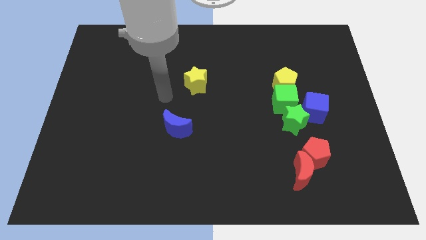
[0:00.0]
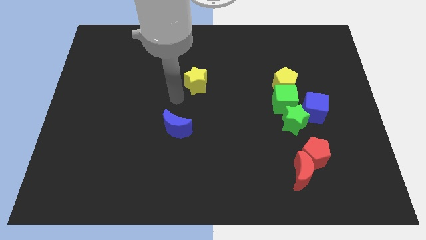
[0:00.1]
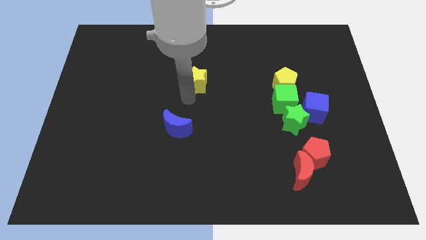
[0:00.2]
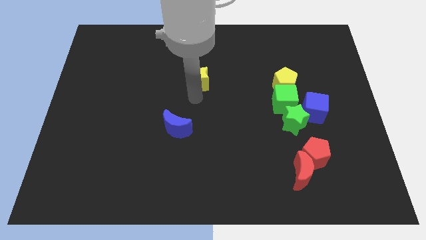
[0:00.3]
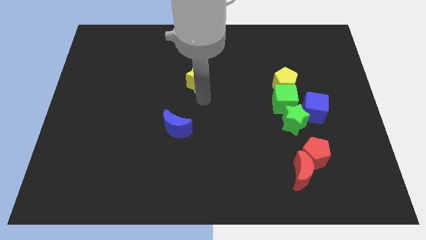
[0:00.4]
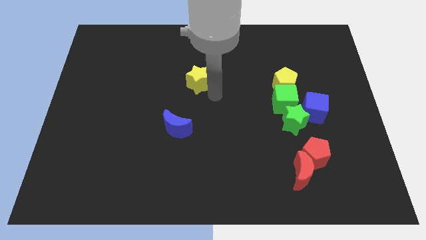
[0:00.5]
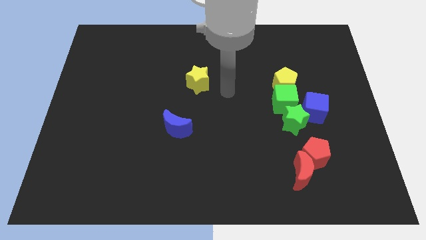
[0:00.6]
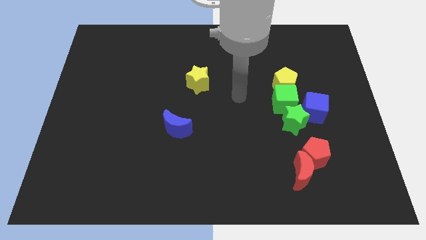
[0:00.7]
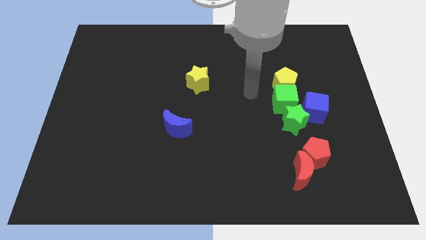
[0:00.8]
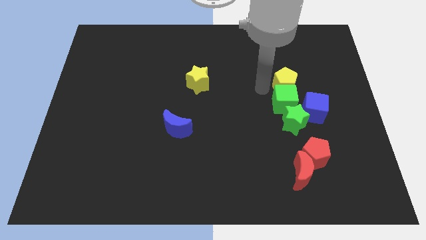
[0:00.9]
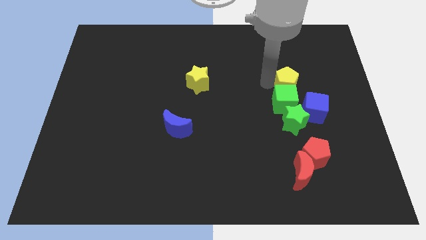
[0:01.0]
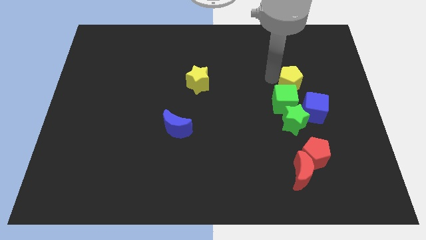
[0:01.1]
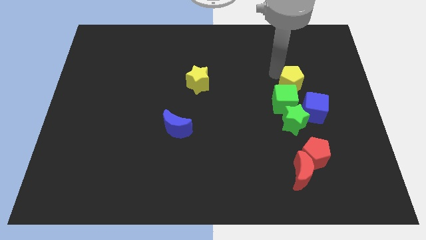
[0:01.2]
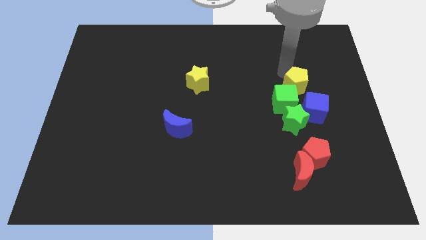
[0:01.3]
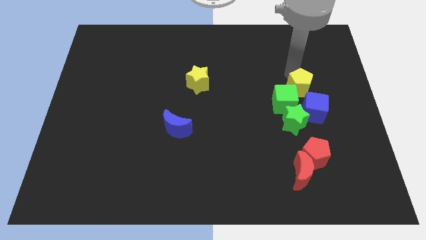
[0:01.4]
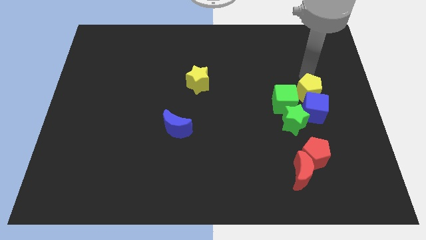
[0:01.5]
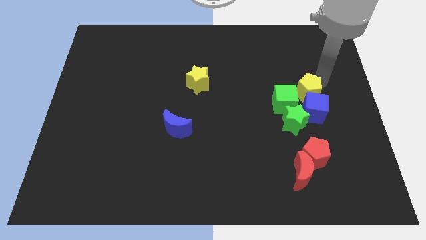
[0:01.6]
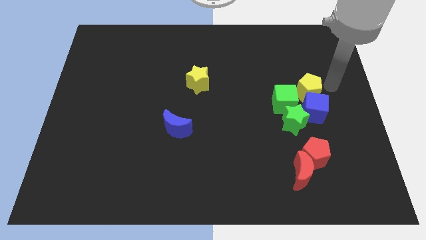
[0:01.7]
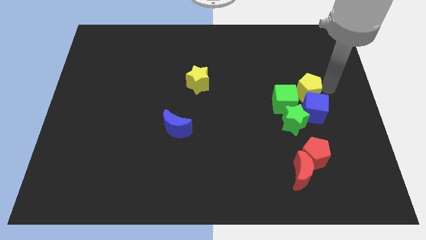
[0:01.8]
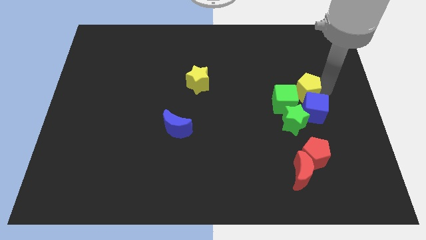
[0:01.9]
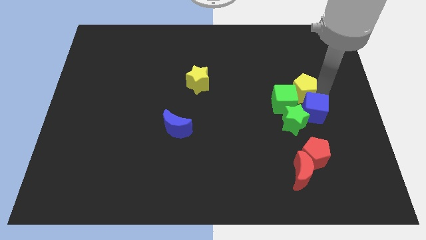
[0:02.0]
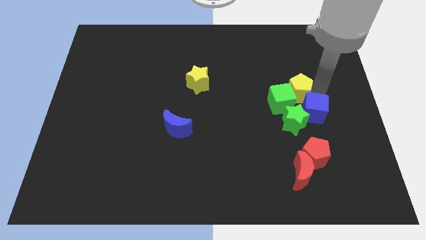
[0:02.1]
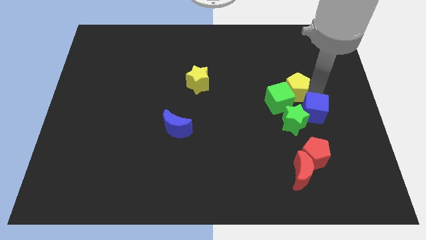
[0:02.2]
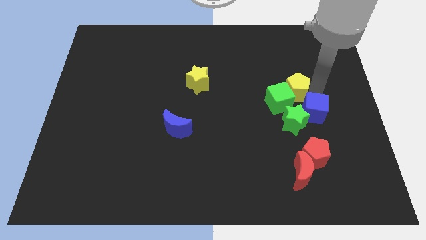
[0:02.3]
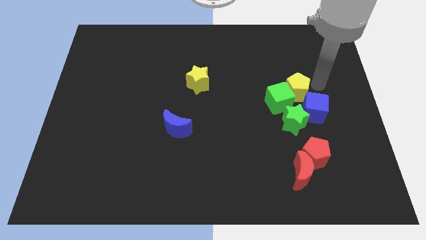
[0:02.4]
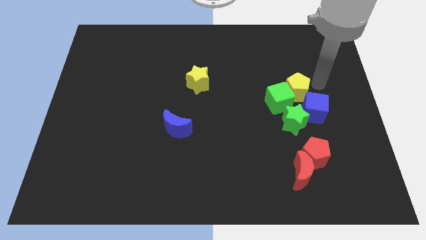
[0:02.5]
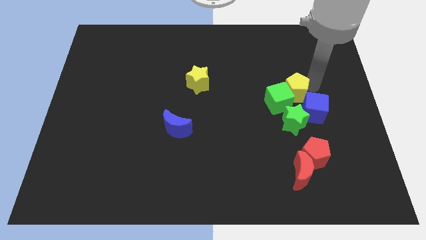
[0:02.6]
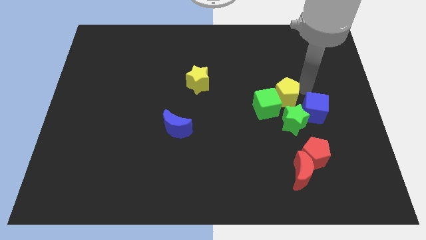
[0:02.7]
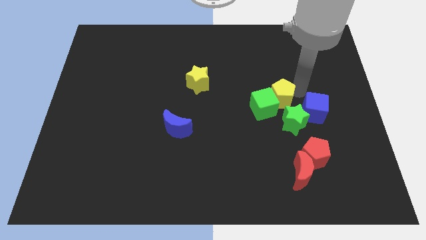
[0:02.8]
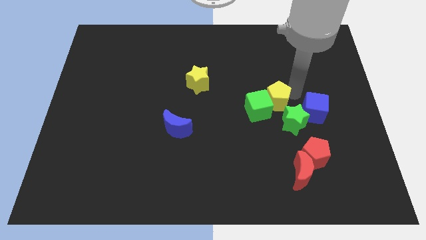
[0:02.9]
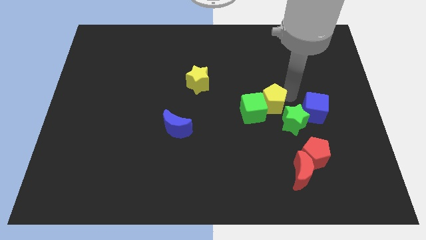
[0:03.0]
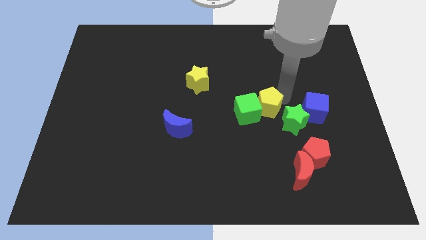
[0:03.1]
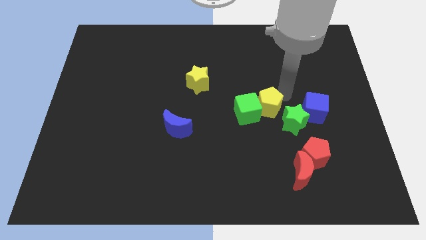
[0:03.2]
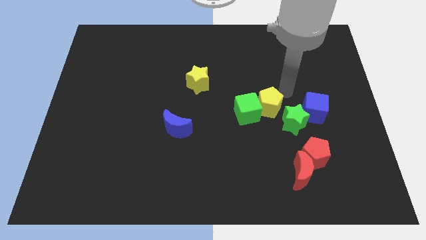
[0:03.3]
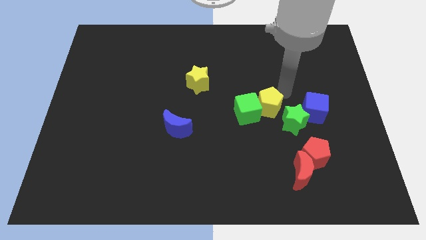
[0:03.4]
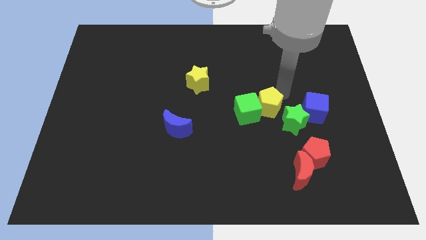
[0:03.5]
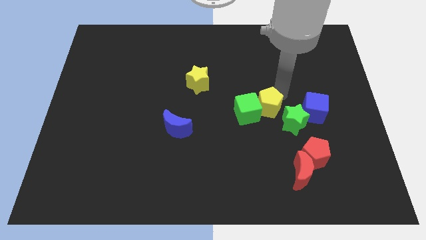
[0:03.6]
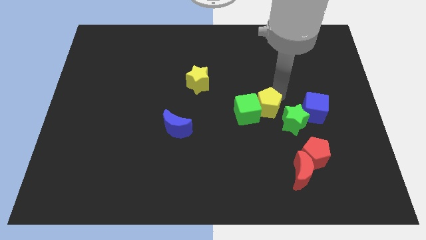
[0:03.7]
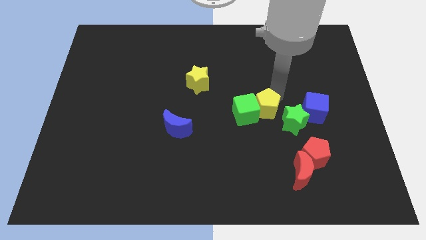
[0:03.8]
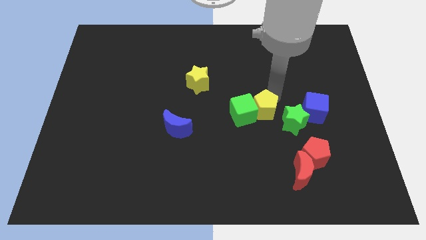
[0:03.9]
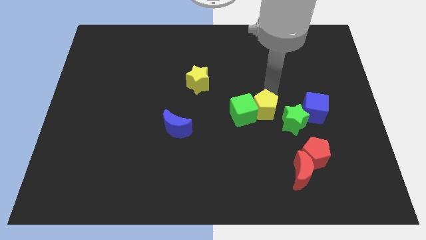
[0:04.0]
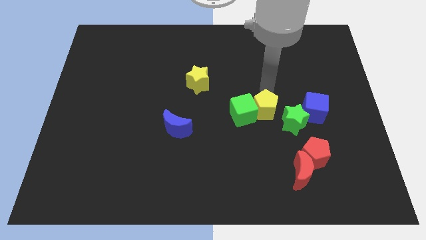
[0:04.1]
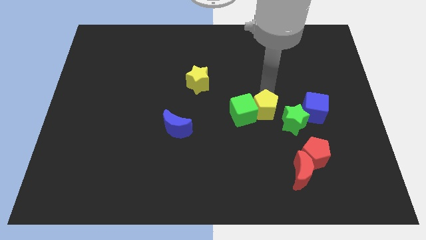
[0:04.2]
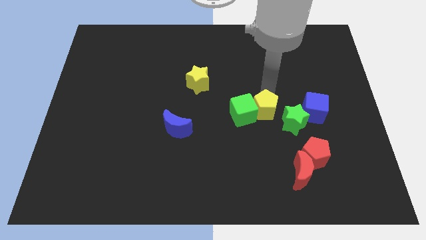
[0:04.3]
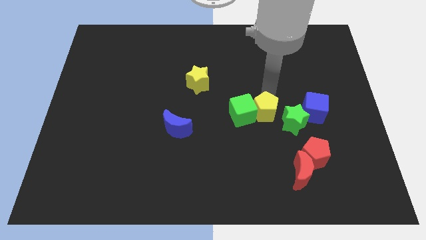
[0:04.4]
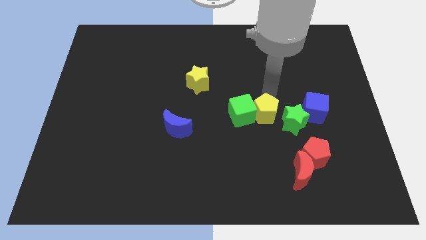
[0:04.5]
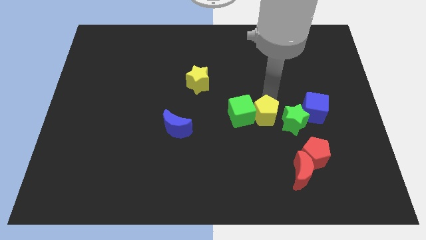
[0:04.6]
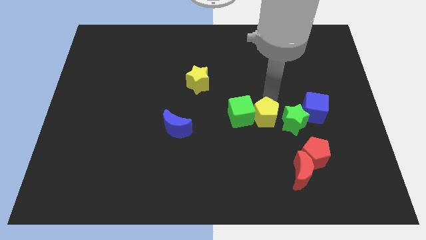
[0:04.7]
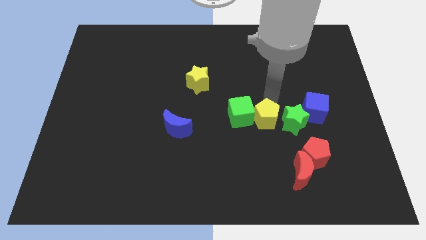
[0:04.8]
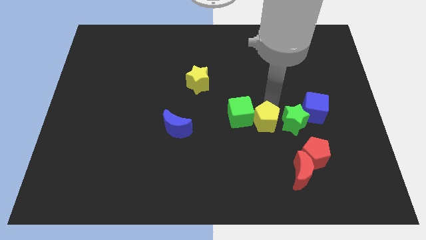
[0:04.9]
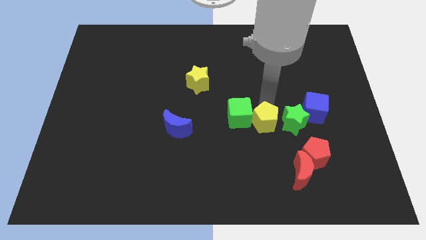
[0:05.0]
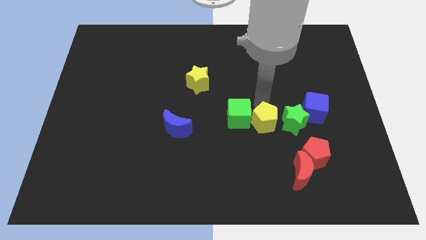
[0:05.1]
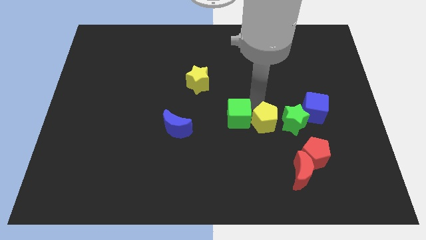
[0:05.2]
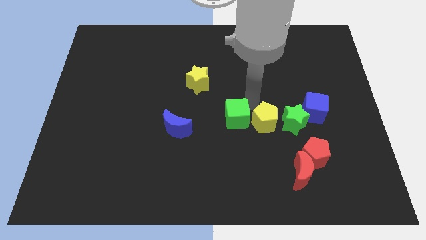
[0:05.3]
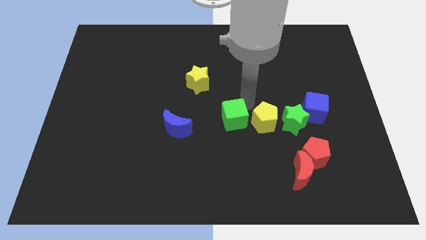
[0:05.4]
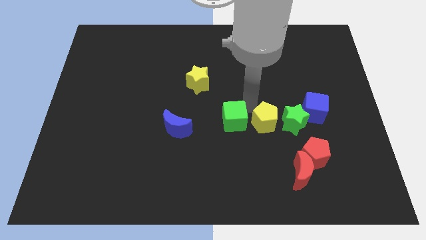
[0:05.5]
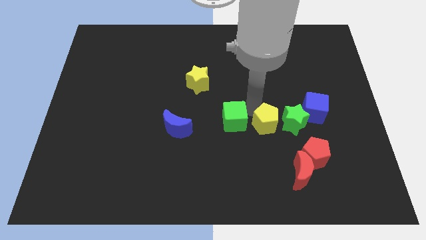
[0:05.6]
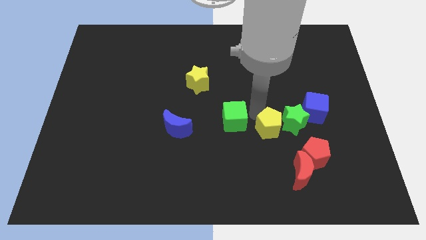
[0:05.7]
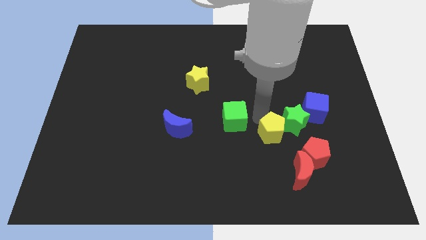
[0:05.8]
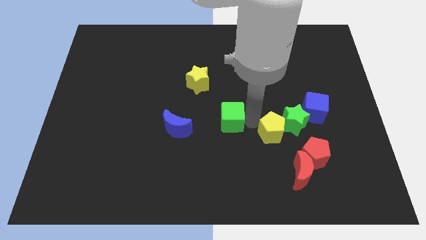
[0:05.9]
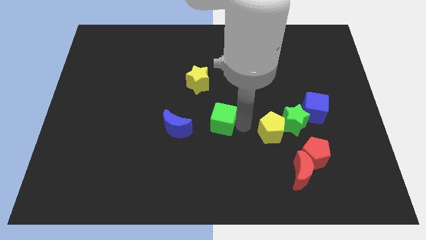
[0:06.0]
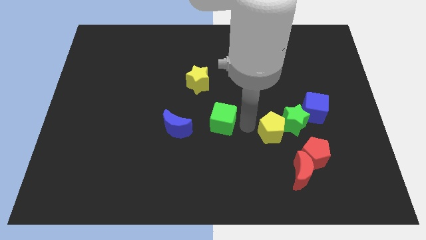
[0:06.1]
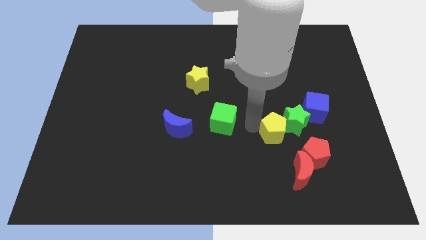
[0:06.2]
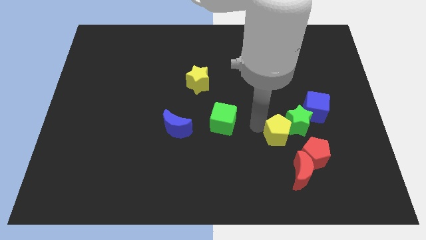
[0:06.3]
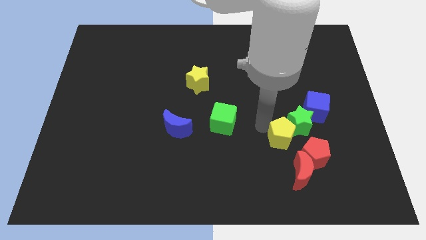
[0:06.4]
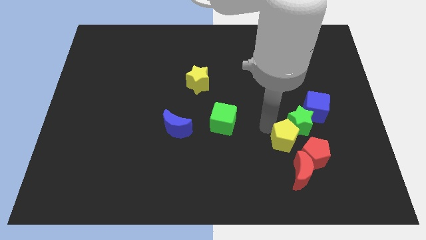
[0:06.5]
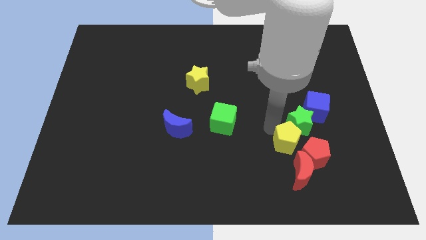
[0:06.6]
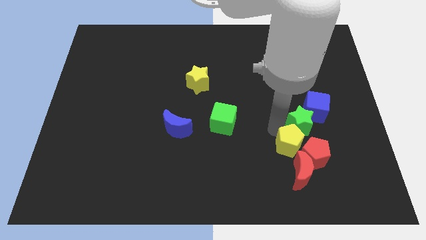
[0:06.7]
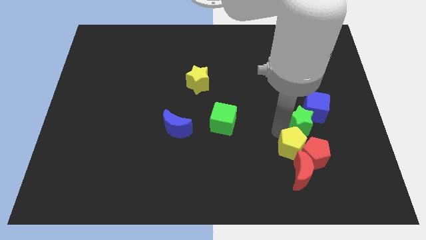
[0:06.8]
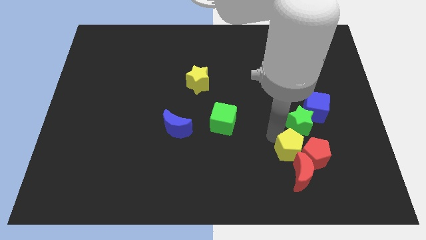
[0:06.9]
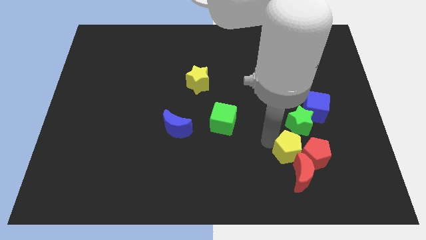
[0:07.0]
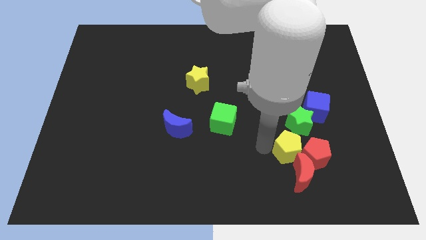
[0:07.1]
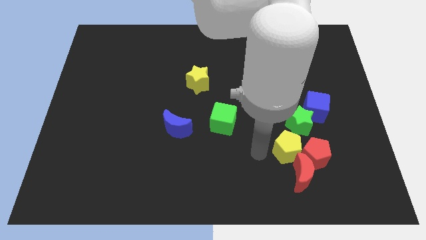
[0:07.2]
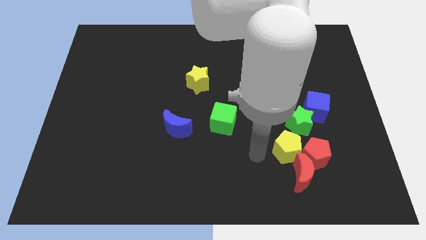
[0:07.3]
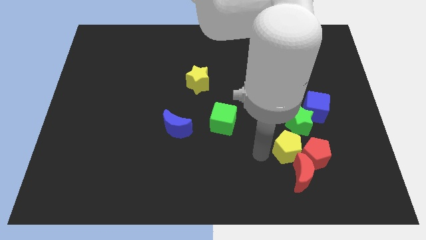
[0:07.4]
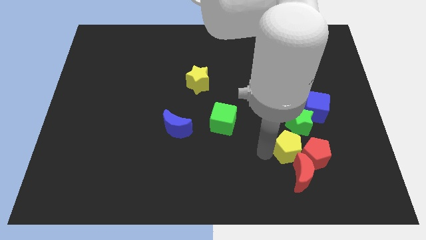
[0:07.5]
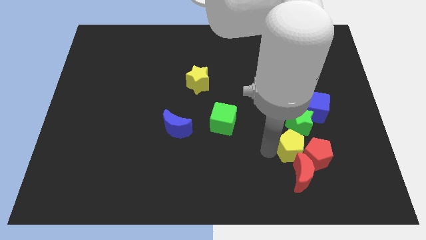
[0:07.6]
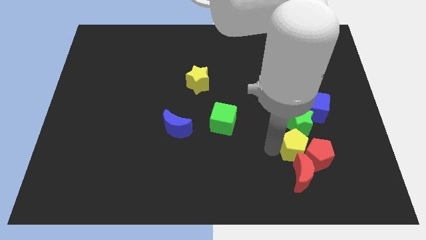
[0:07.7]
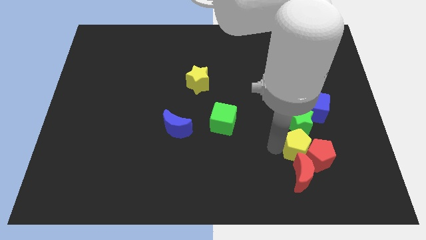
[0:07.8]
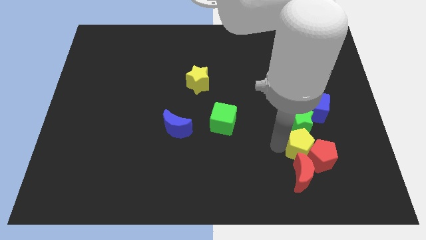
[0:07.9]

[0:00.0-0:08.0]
move the yellow pentagon diagonally down and to the right of the green star
